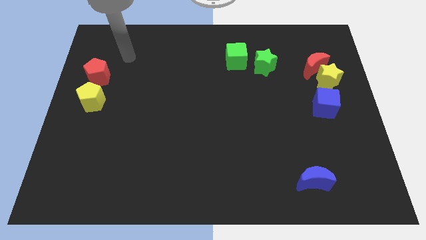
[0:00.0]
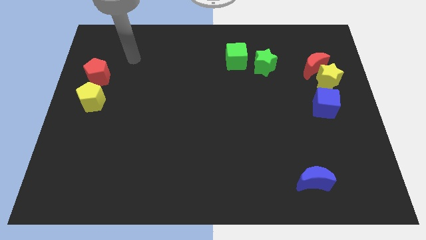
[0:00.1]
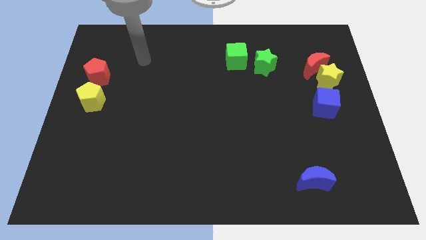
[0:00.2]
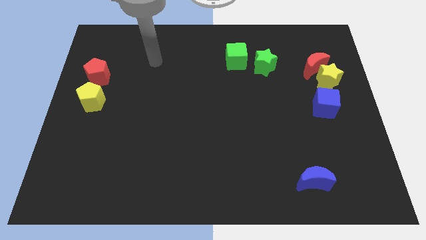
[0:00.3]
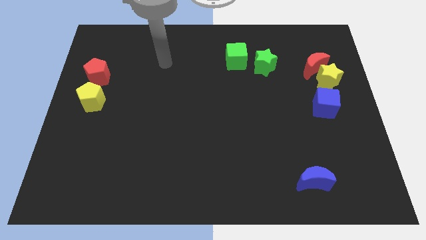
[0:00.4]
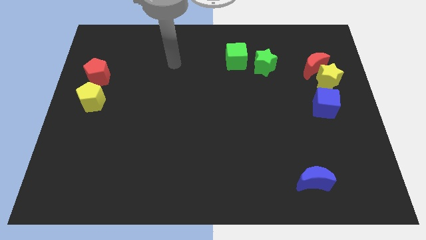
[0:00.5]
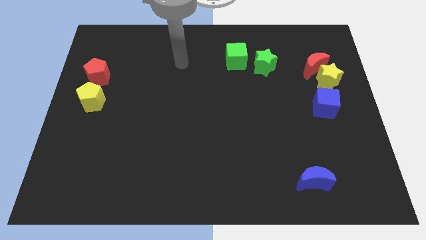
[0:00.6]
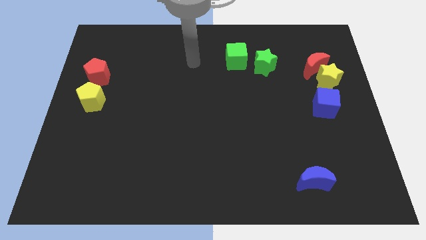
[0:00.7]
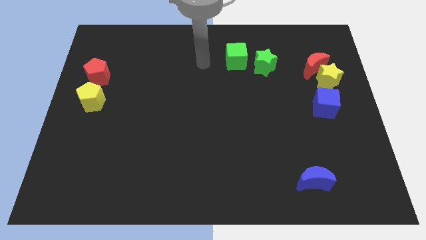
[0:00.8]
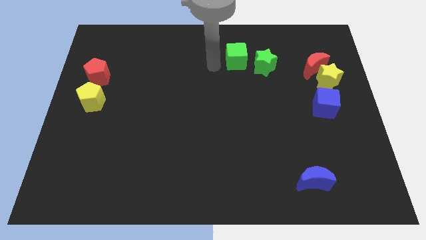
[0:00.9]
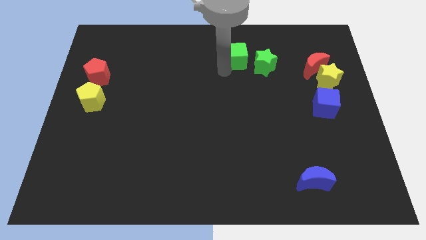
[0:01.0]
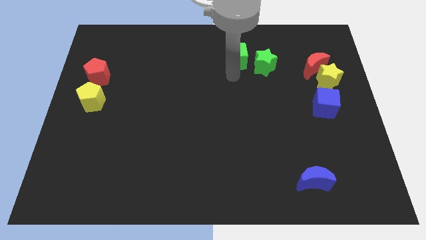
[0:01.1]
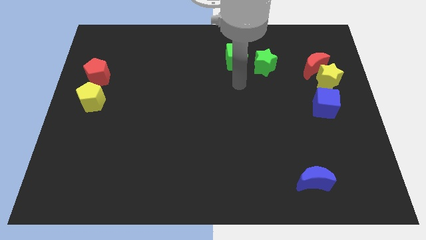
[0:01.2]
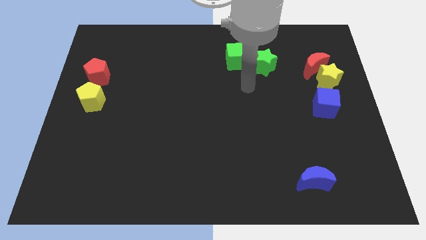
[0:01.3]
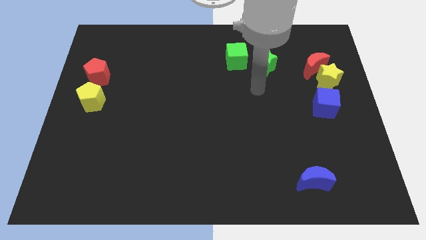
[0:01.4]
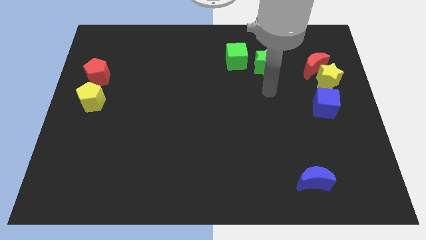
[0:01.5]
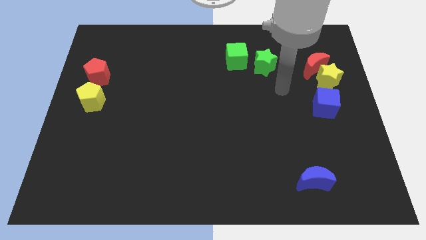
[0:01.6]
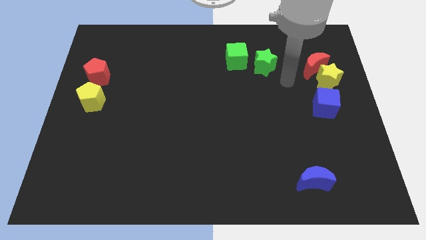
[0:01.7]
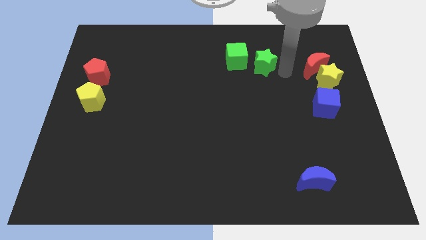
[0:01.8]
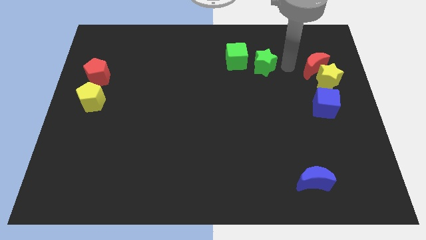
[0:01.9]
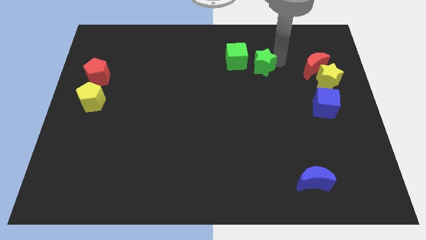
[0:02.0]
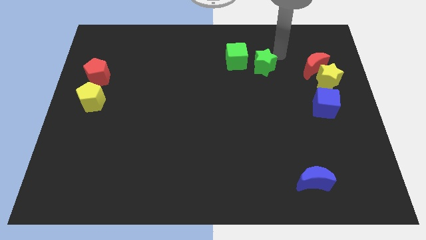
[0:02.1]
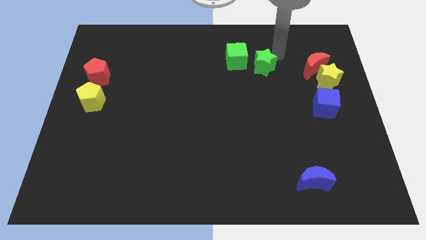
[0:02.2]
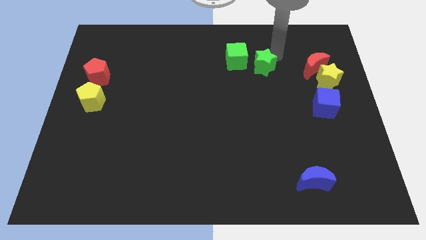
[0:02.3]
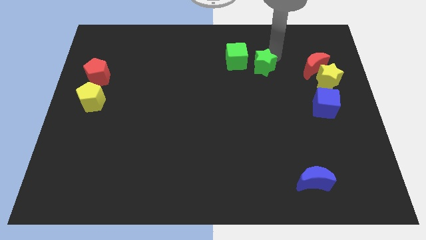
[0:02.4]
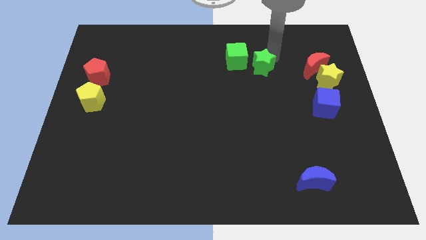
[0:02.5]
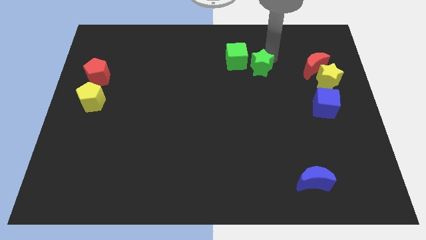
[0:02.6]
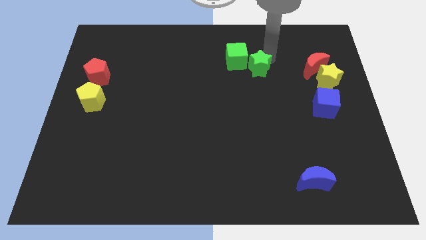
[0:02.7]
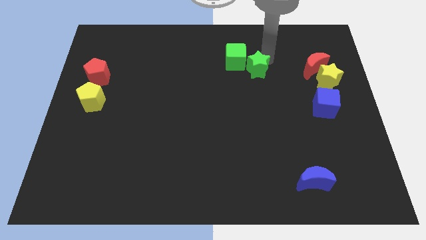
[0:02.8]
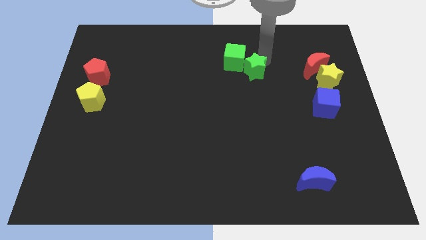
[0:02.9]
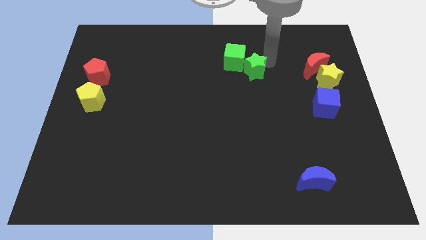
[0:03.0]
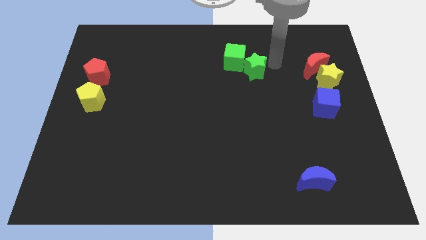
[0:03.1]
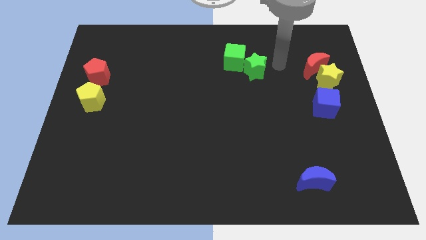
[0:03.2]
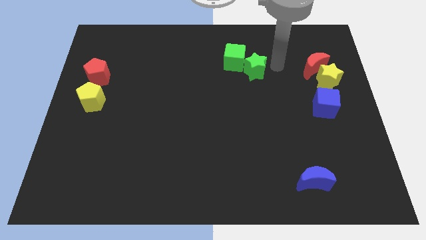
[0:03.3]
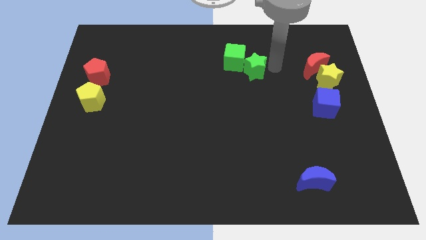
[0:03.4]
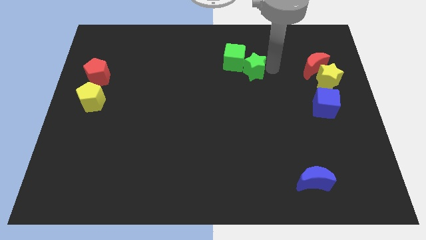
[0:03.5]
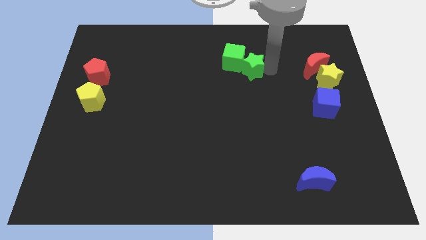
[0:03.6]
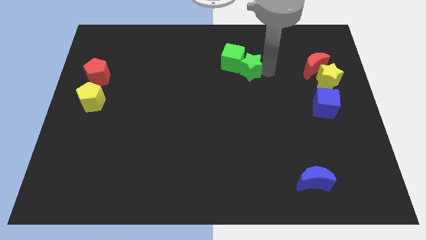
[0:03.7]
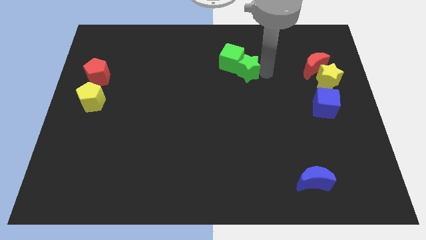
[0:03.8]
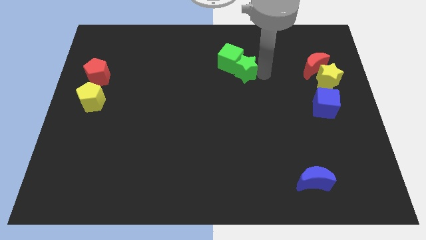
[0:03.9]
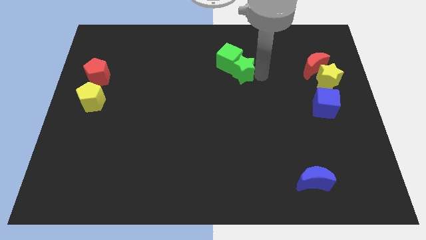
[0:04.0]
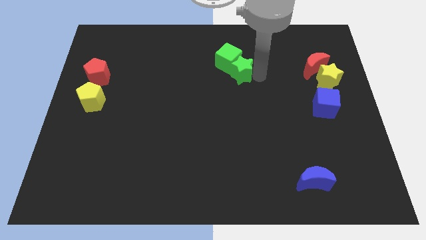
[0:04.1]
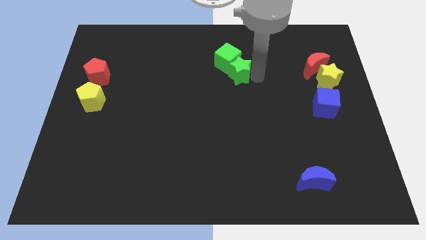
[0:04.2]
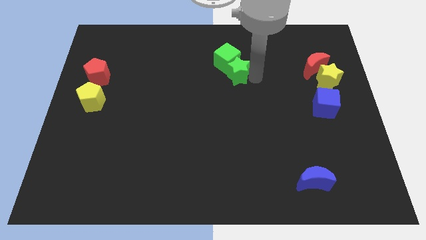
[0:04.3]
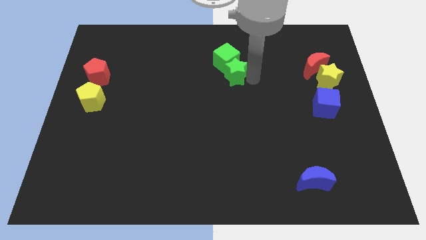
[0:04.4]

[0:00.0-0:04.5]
slightly slide the green star to the left

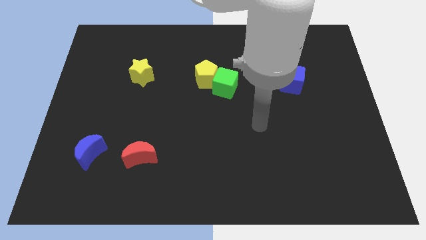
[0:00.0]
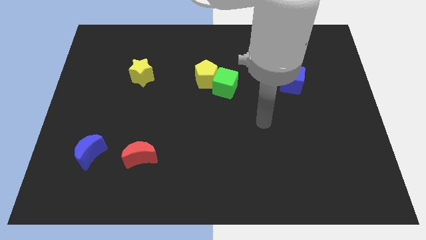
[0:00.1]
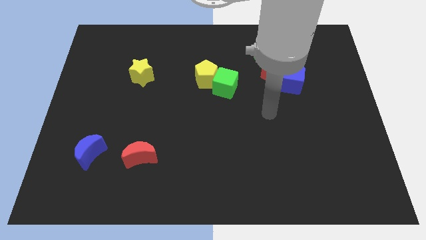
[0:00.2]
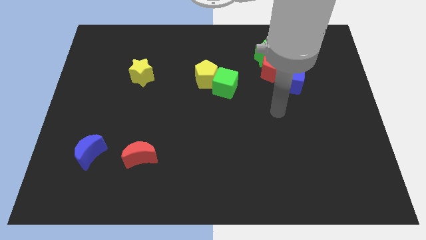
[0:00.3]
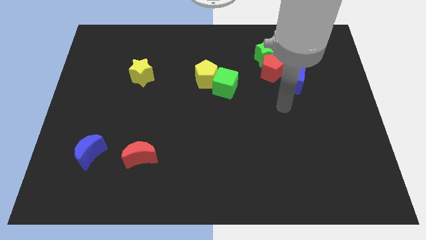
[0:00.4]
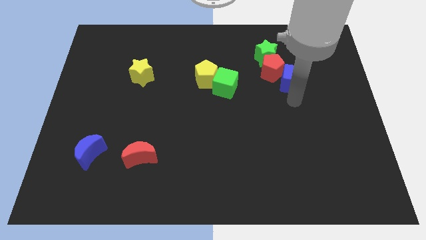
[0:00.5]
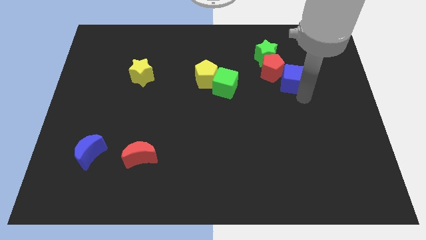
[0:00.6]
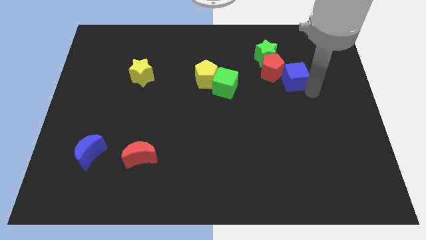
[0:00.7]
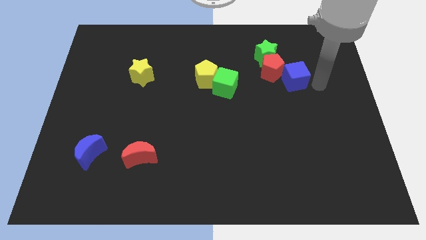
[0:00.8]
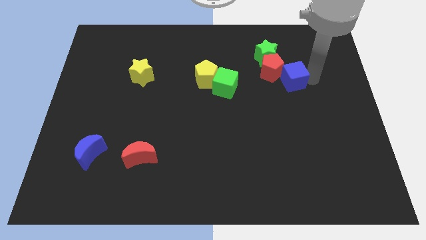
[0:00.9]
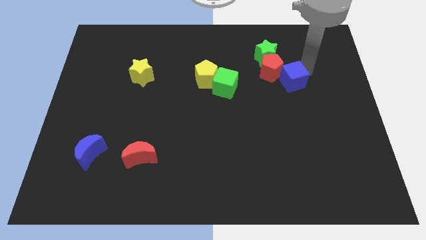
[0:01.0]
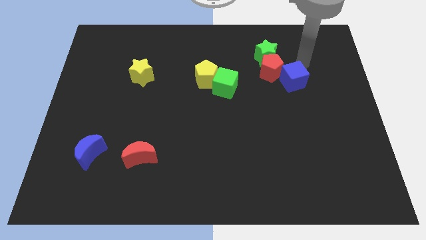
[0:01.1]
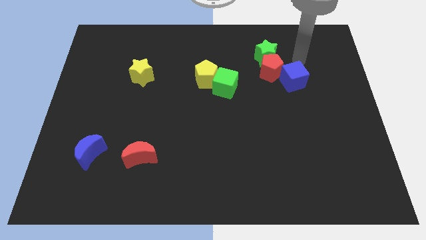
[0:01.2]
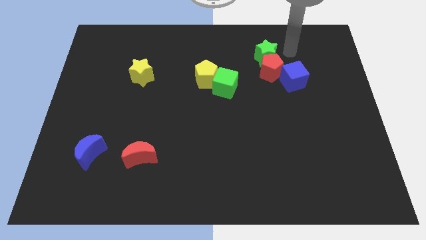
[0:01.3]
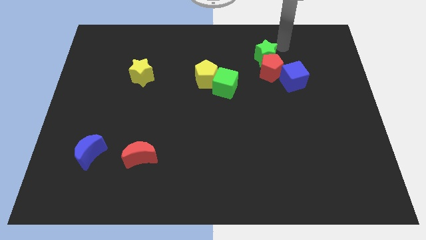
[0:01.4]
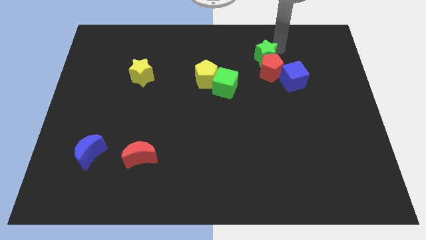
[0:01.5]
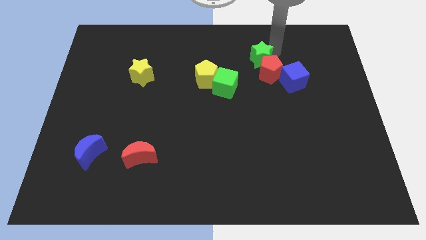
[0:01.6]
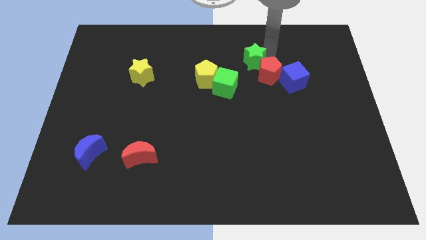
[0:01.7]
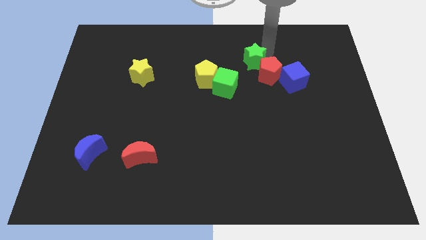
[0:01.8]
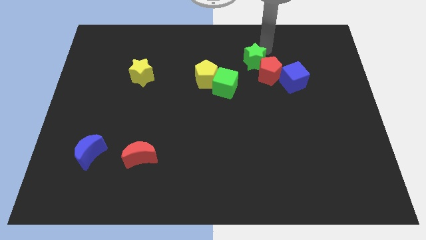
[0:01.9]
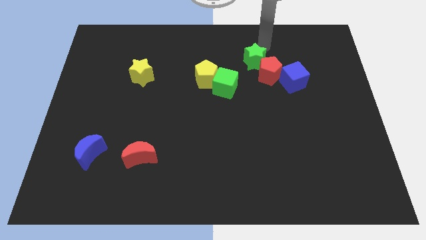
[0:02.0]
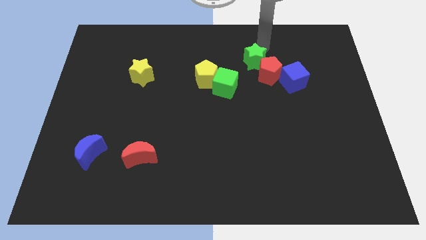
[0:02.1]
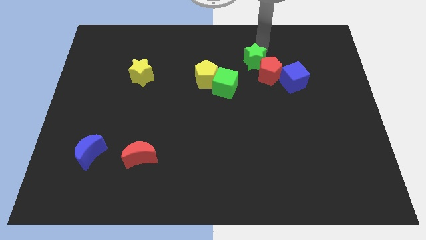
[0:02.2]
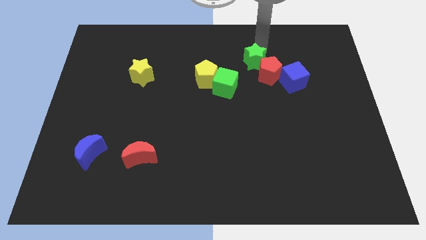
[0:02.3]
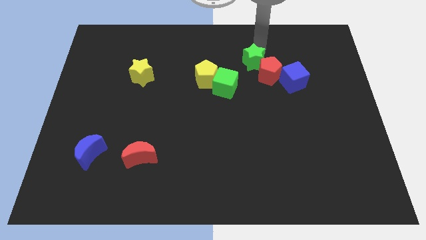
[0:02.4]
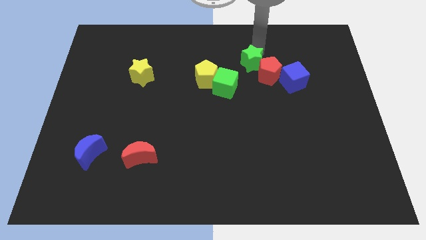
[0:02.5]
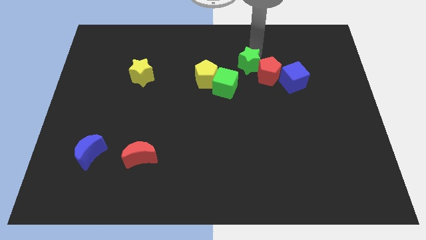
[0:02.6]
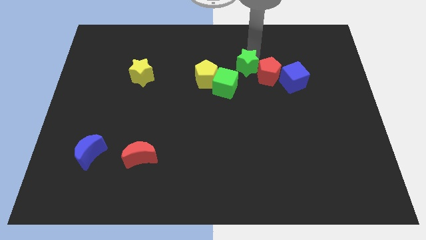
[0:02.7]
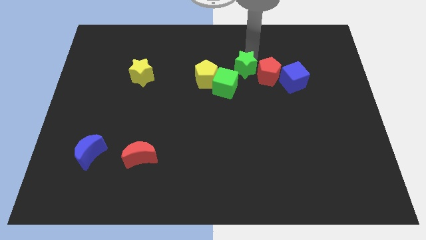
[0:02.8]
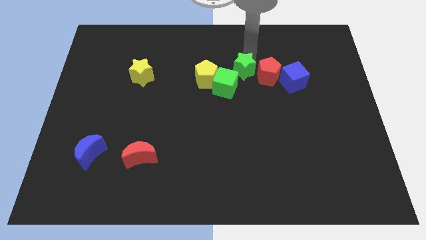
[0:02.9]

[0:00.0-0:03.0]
slightly push the green star diagonally downwards and to the left

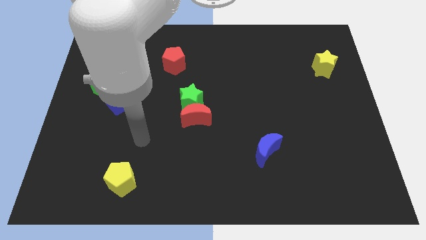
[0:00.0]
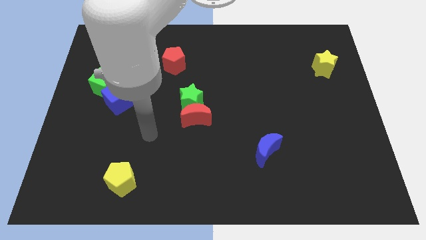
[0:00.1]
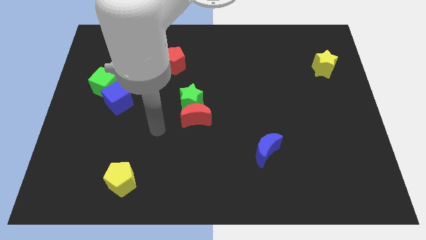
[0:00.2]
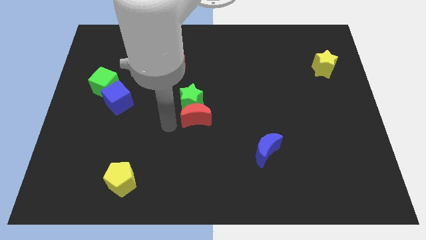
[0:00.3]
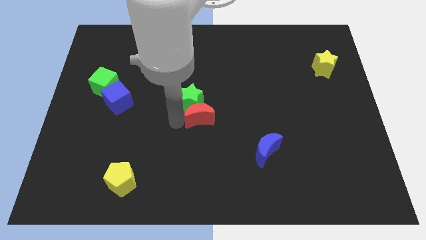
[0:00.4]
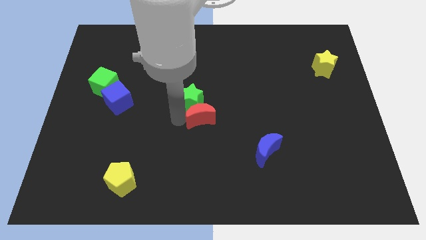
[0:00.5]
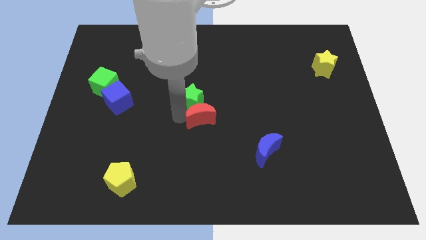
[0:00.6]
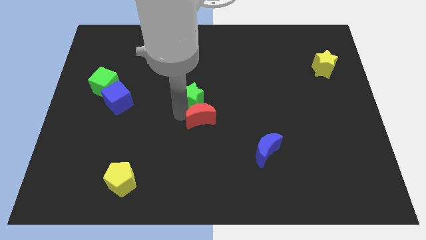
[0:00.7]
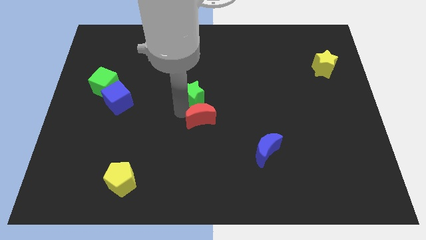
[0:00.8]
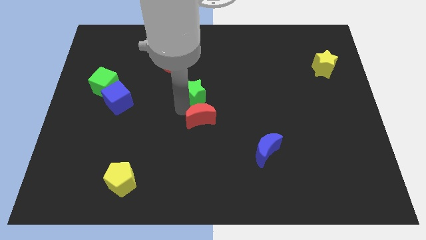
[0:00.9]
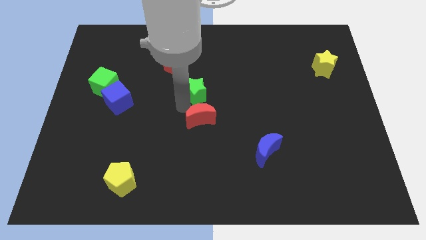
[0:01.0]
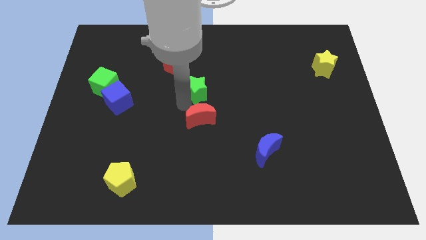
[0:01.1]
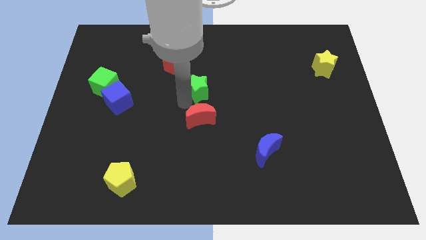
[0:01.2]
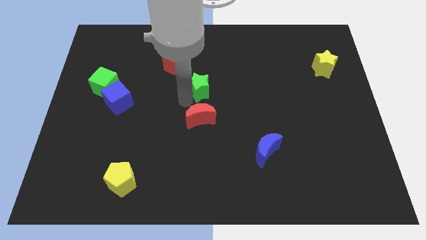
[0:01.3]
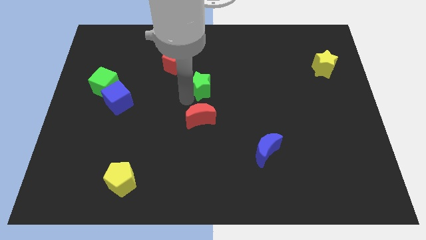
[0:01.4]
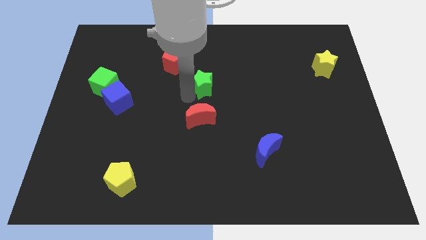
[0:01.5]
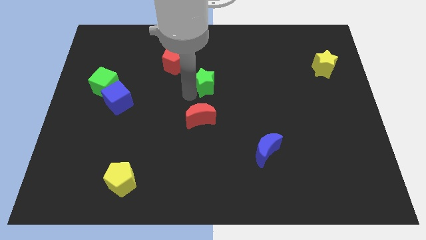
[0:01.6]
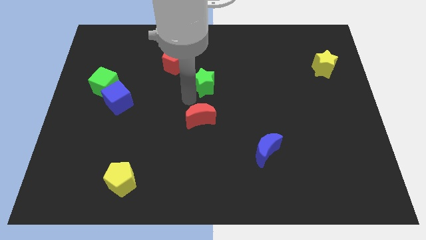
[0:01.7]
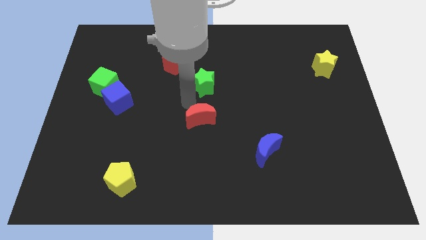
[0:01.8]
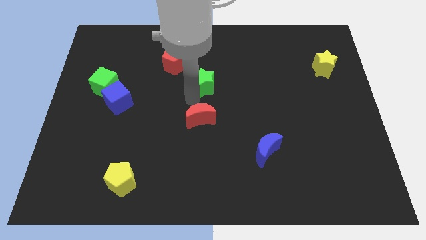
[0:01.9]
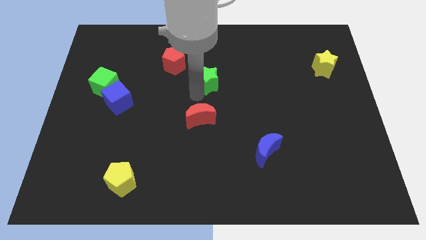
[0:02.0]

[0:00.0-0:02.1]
push the green star a bit up and right diagonally
